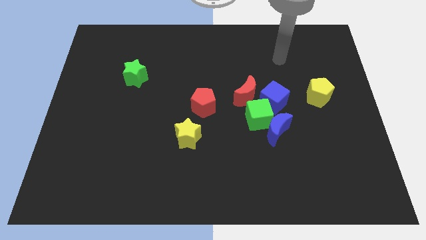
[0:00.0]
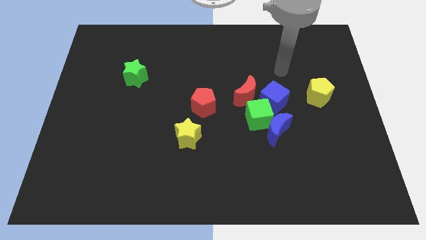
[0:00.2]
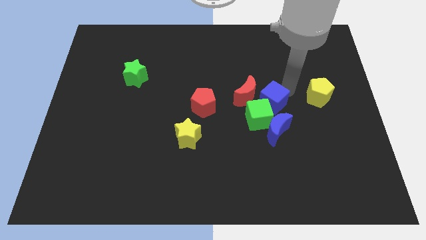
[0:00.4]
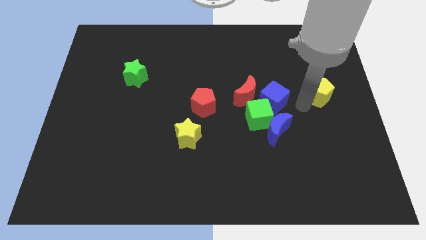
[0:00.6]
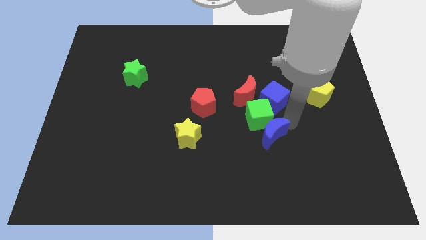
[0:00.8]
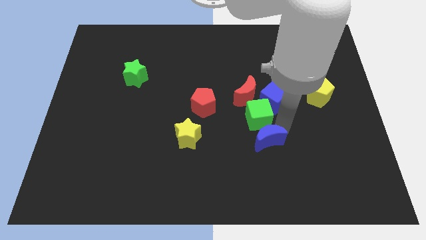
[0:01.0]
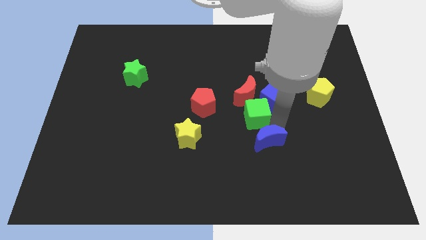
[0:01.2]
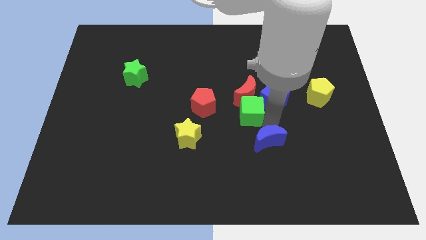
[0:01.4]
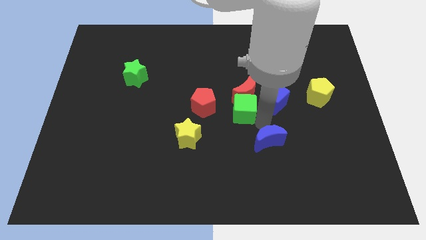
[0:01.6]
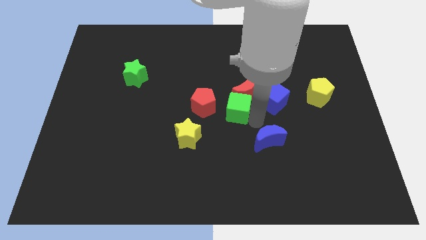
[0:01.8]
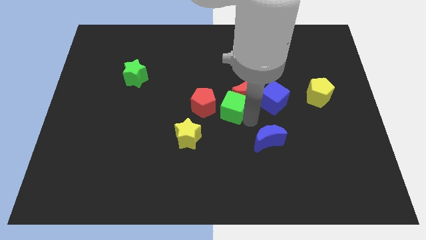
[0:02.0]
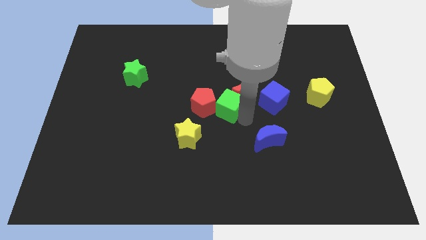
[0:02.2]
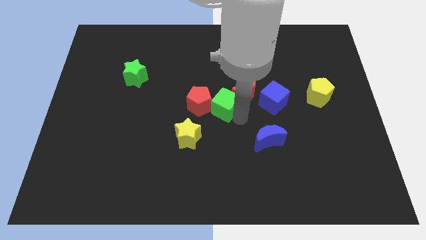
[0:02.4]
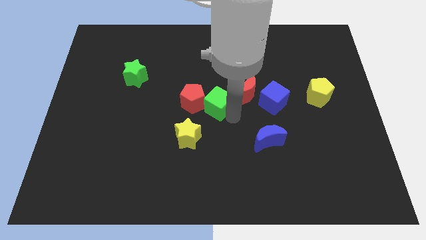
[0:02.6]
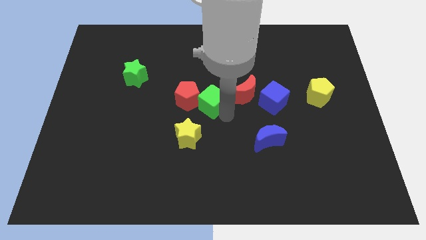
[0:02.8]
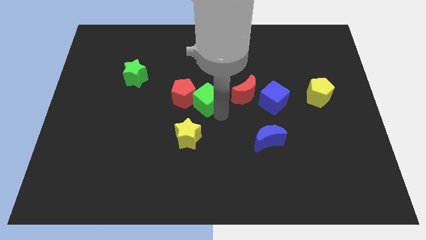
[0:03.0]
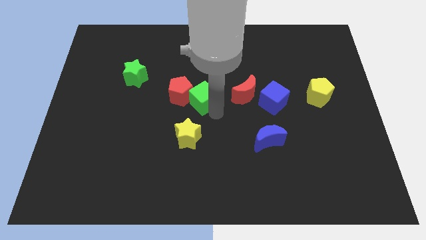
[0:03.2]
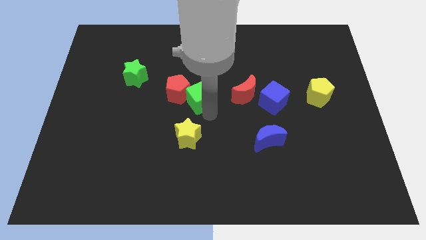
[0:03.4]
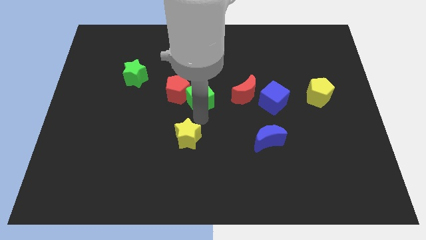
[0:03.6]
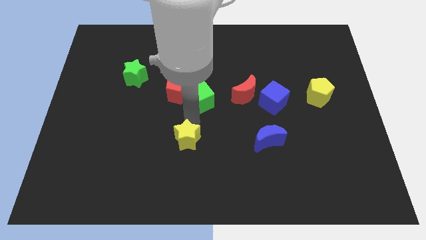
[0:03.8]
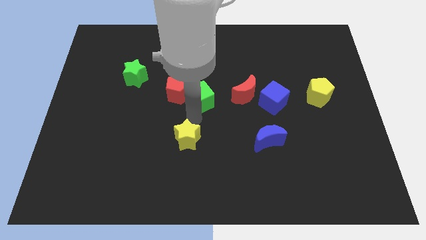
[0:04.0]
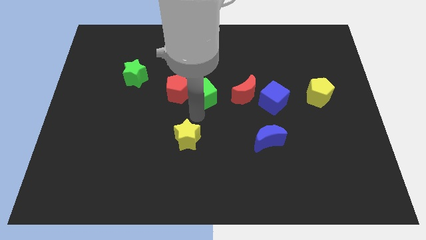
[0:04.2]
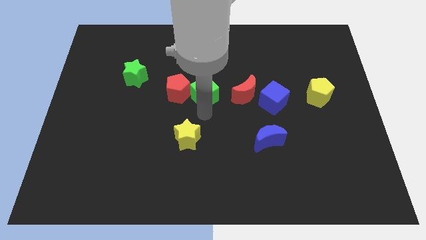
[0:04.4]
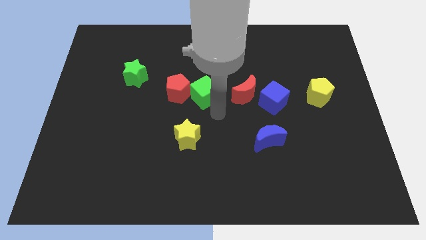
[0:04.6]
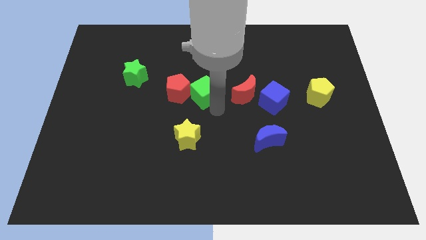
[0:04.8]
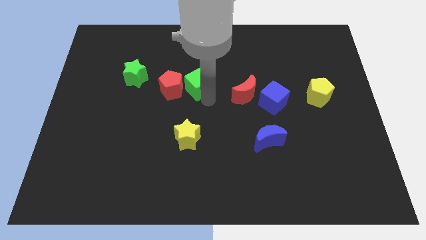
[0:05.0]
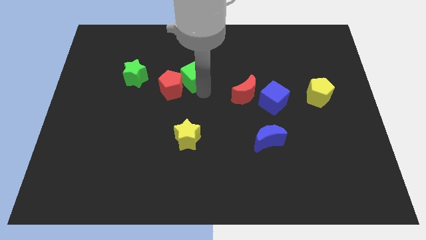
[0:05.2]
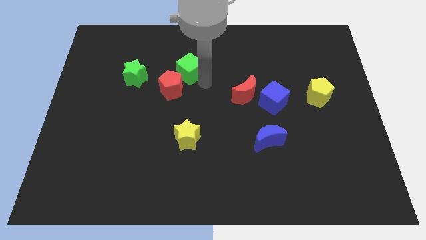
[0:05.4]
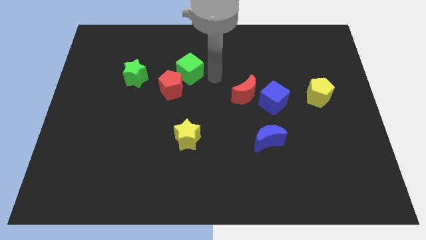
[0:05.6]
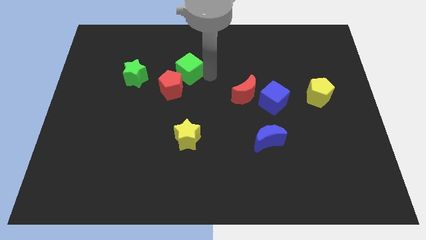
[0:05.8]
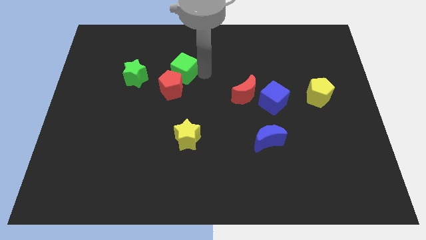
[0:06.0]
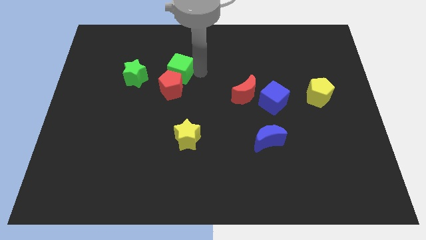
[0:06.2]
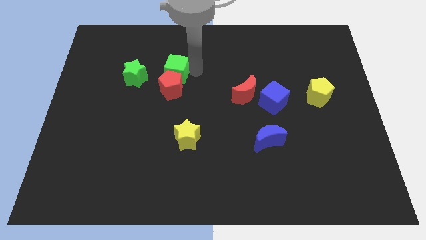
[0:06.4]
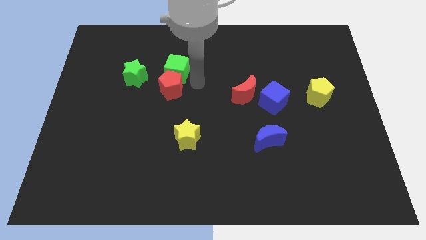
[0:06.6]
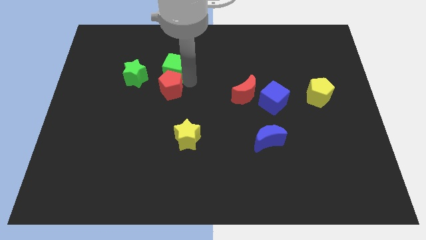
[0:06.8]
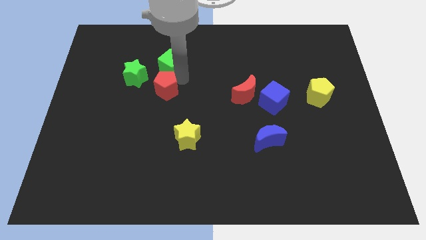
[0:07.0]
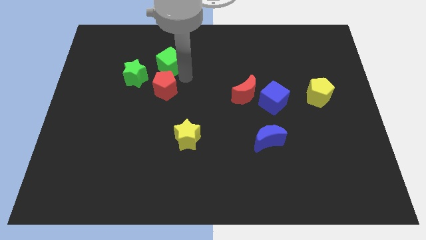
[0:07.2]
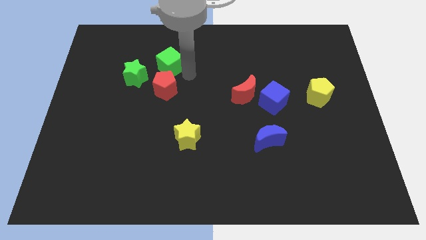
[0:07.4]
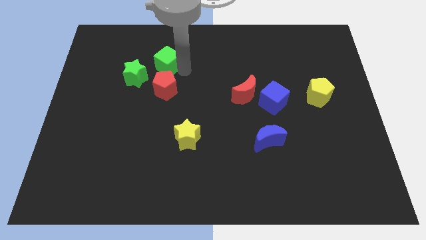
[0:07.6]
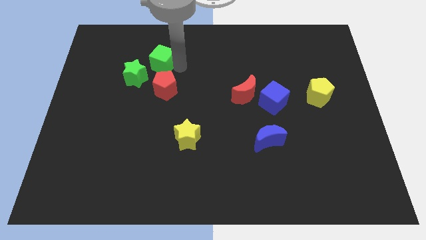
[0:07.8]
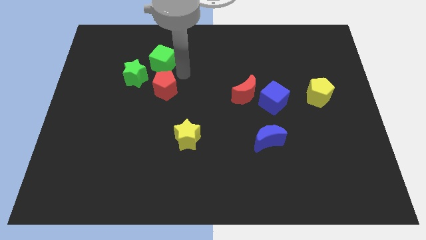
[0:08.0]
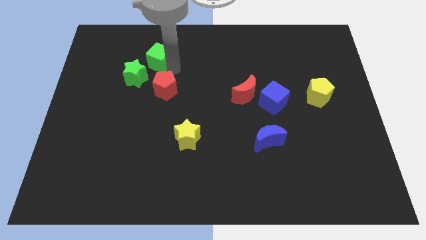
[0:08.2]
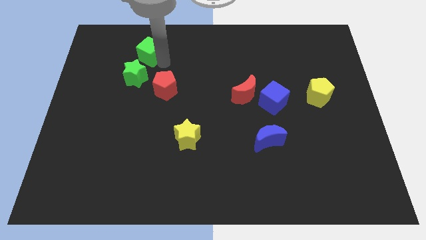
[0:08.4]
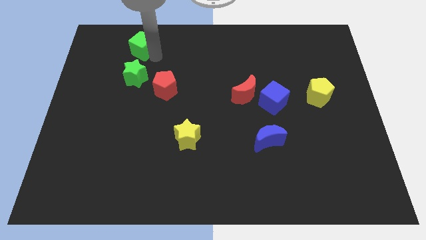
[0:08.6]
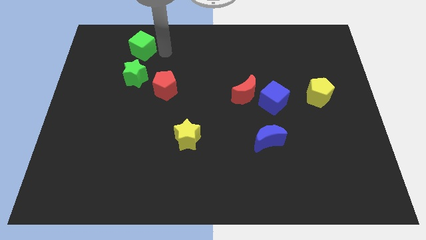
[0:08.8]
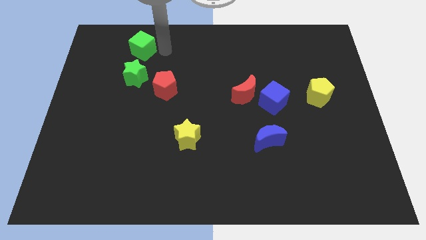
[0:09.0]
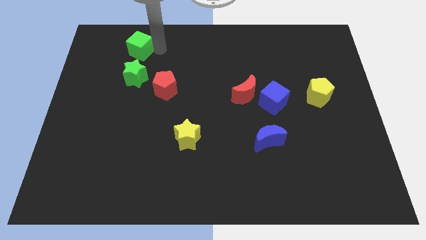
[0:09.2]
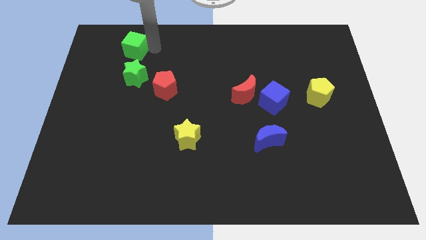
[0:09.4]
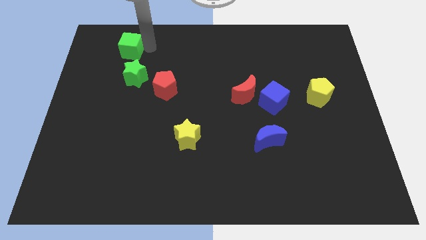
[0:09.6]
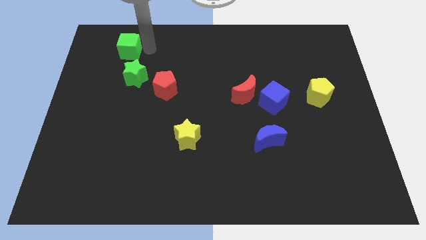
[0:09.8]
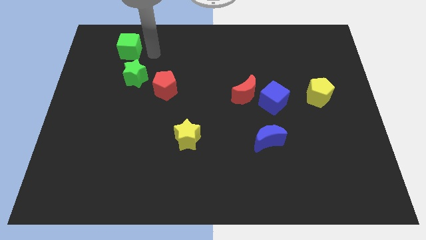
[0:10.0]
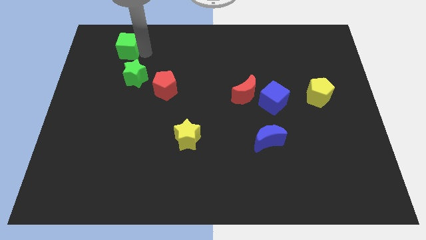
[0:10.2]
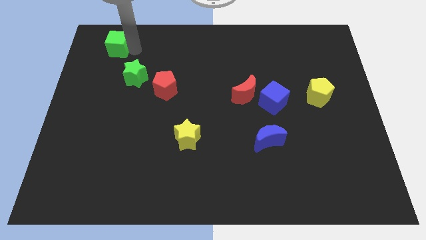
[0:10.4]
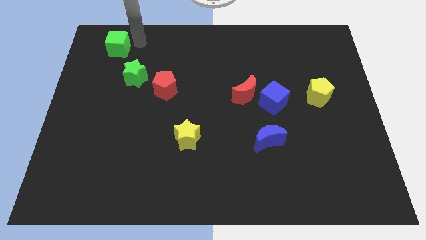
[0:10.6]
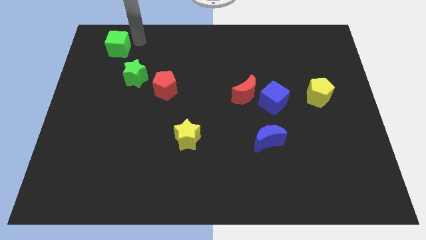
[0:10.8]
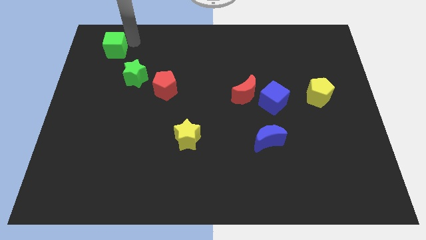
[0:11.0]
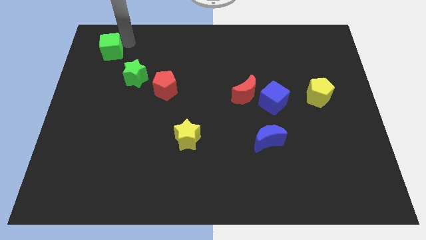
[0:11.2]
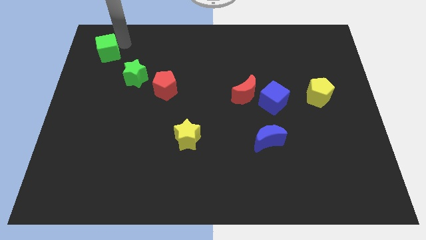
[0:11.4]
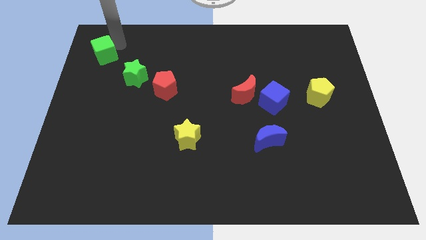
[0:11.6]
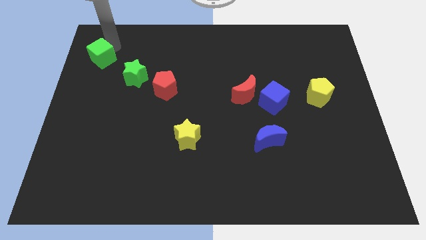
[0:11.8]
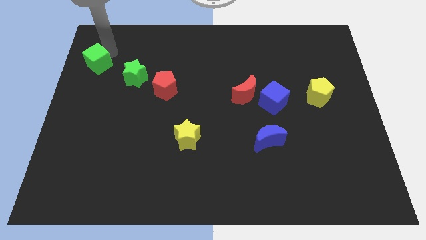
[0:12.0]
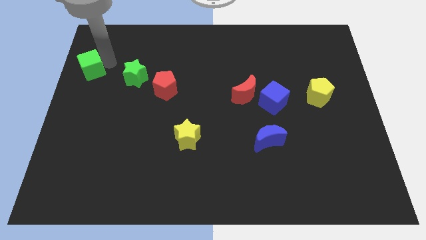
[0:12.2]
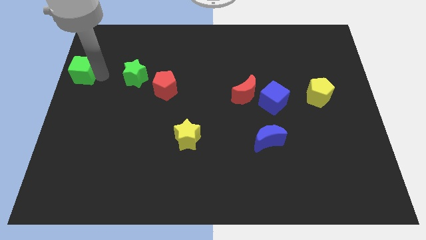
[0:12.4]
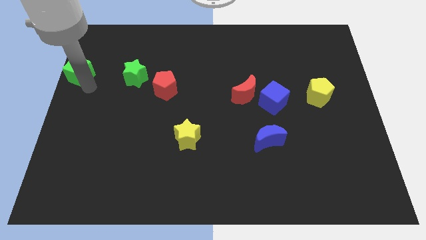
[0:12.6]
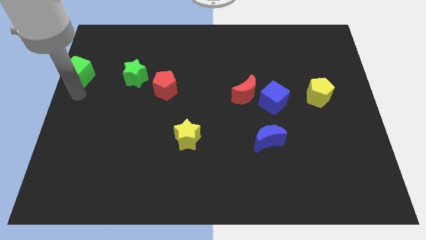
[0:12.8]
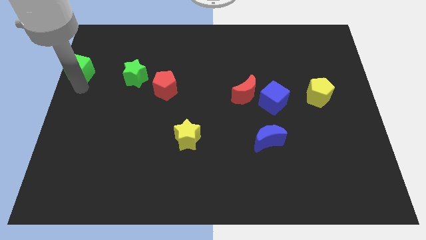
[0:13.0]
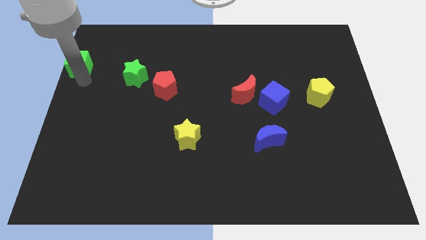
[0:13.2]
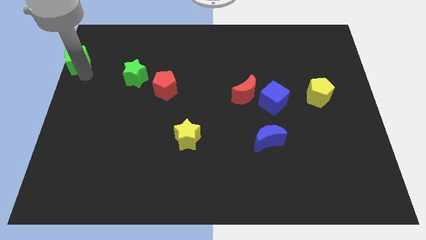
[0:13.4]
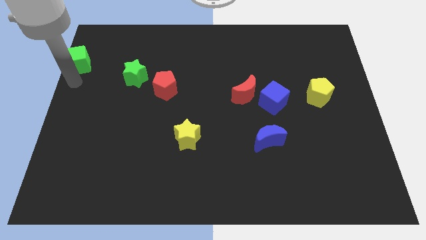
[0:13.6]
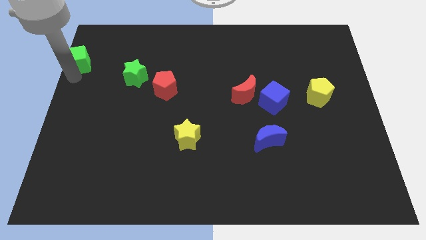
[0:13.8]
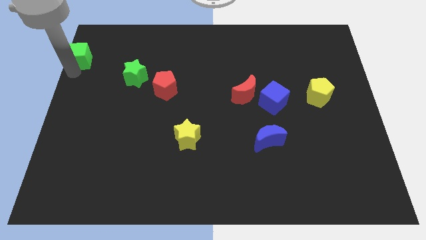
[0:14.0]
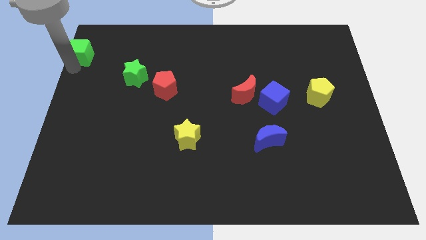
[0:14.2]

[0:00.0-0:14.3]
put the green cube to the top left of the board
